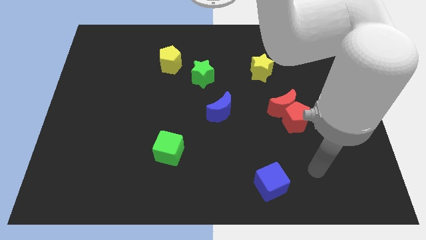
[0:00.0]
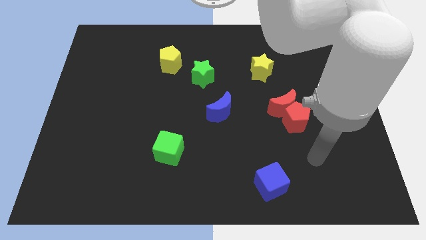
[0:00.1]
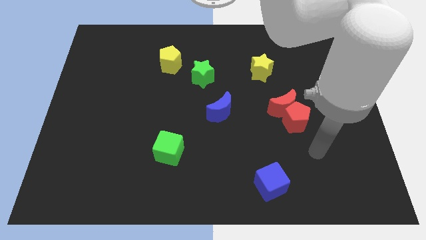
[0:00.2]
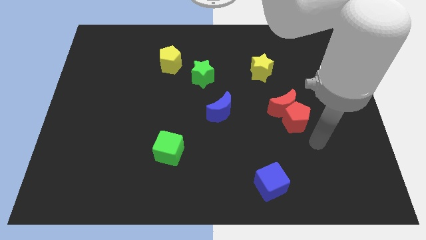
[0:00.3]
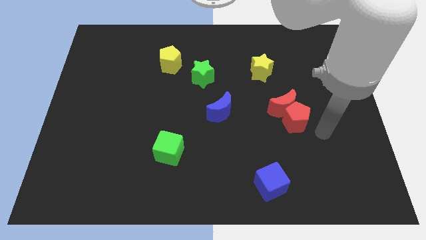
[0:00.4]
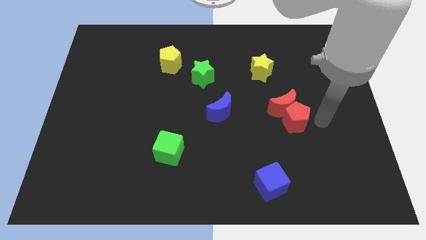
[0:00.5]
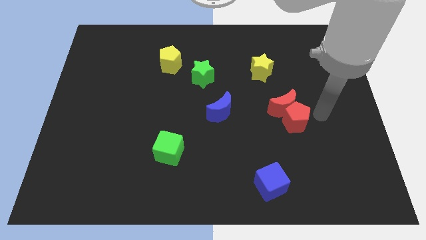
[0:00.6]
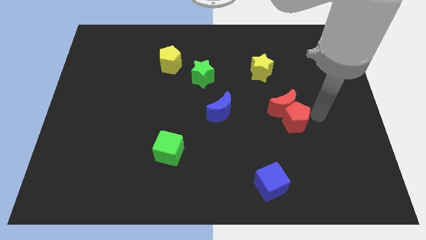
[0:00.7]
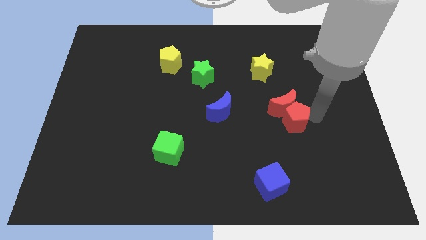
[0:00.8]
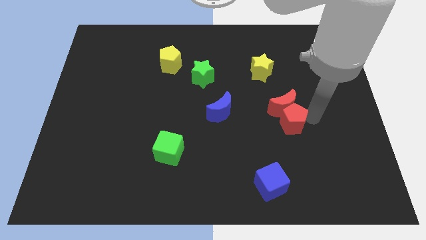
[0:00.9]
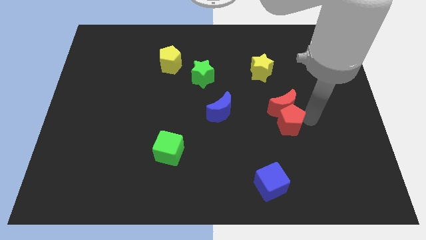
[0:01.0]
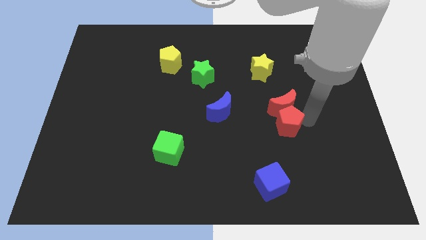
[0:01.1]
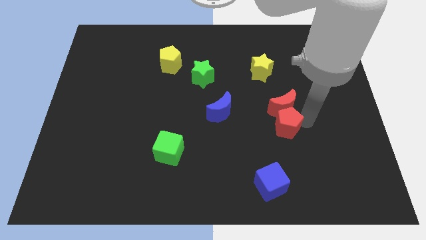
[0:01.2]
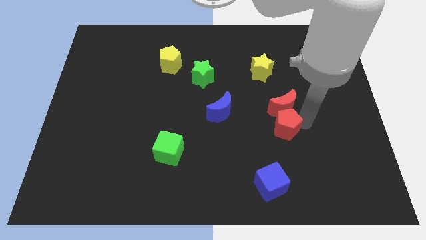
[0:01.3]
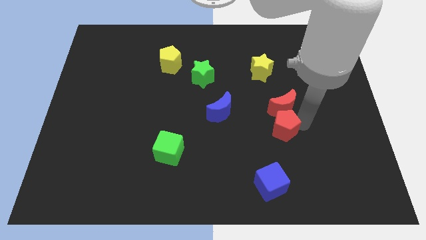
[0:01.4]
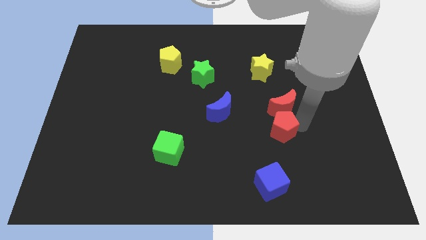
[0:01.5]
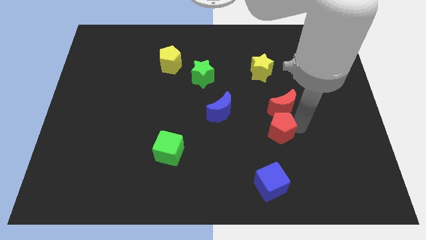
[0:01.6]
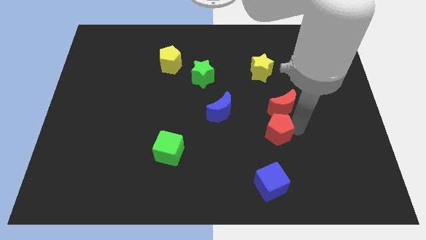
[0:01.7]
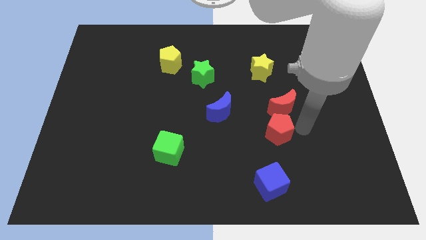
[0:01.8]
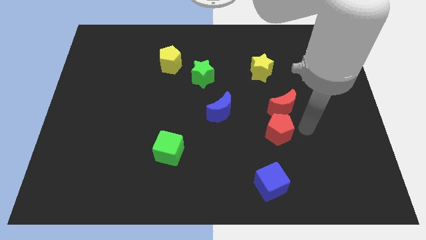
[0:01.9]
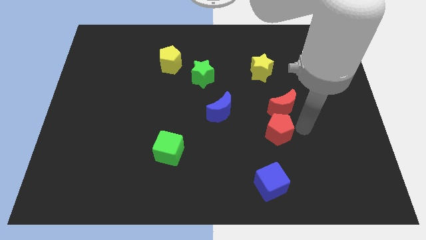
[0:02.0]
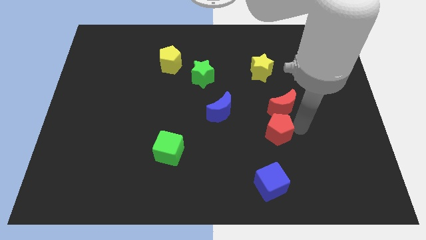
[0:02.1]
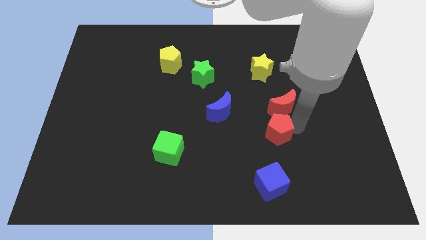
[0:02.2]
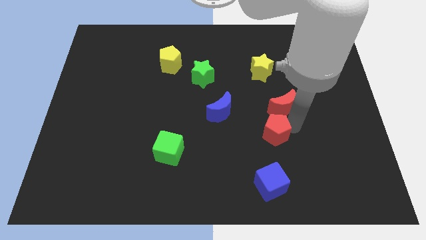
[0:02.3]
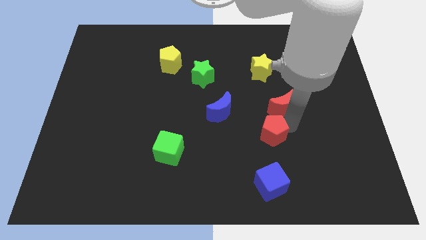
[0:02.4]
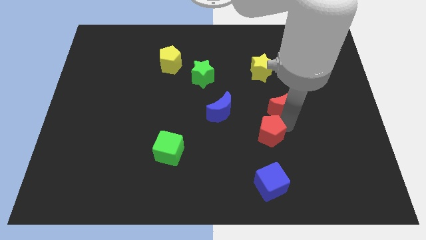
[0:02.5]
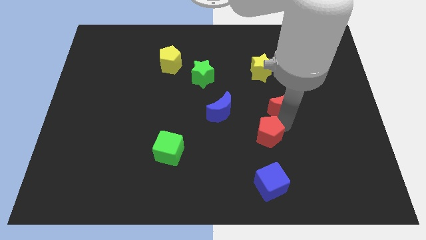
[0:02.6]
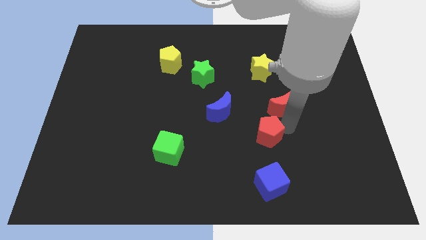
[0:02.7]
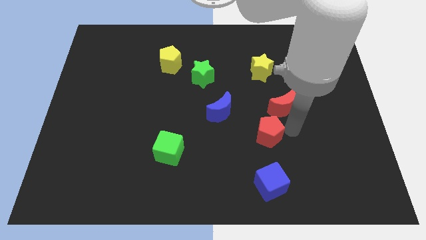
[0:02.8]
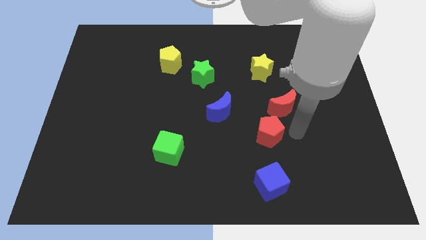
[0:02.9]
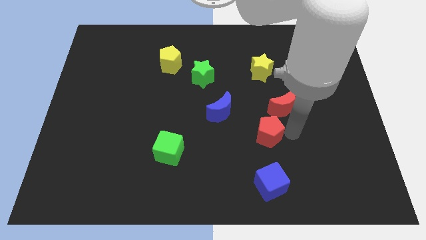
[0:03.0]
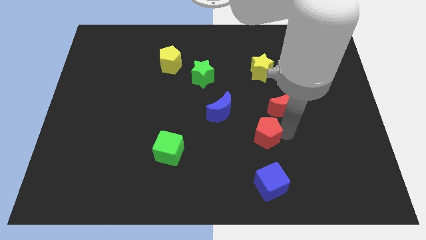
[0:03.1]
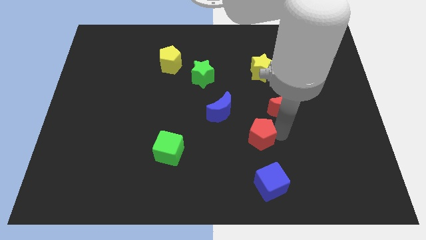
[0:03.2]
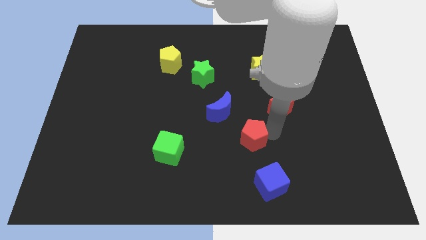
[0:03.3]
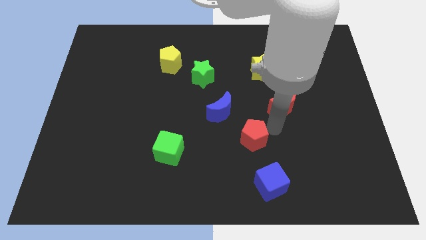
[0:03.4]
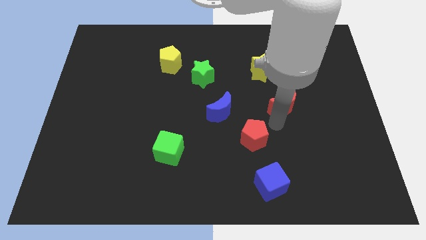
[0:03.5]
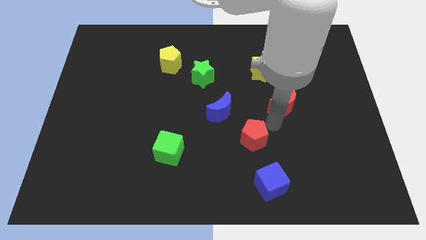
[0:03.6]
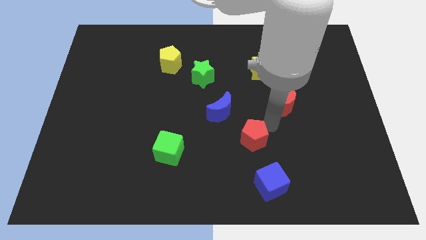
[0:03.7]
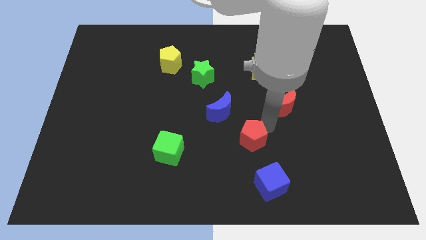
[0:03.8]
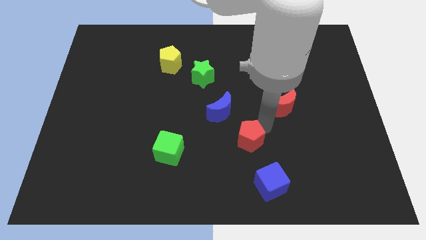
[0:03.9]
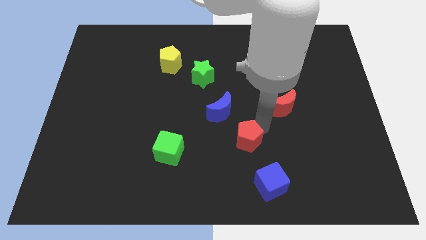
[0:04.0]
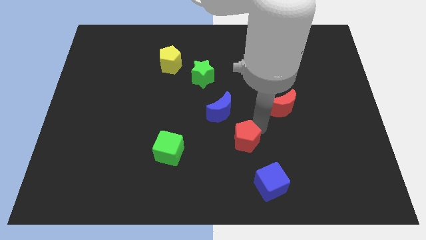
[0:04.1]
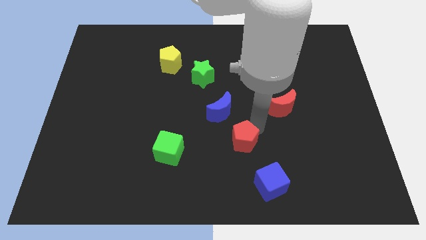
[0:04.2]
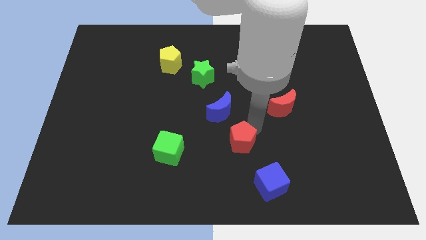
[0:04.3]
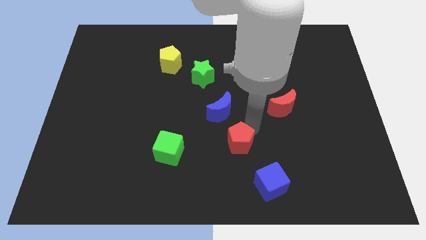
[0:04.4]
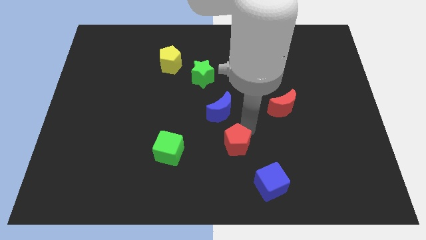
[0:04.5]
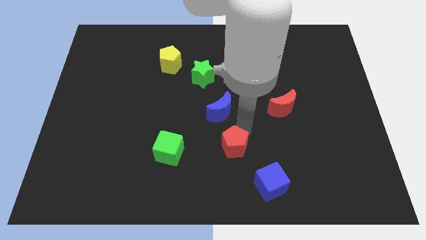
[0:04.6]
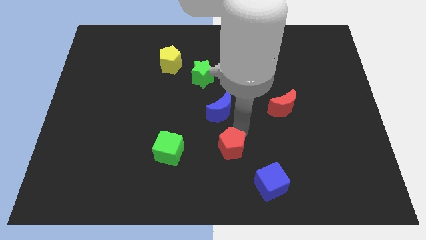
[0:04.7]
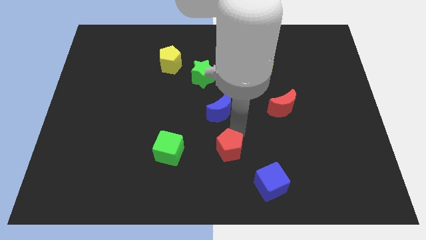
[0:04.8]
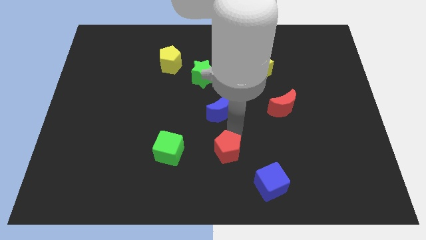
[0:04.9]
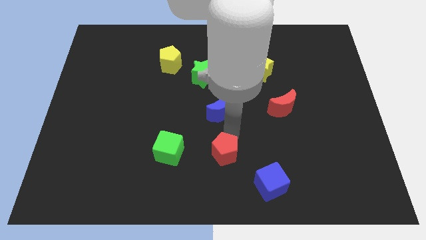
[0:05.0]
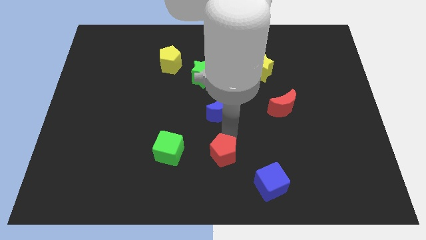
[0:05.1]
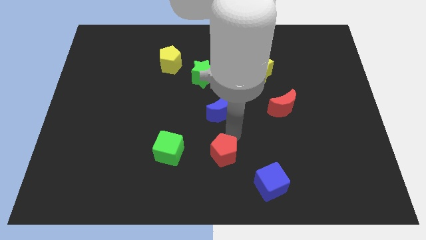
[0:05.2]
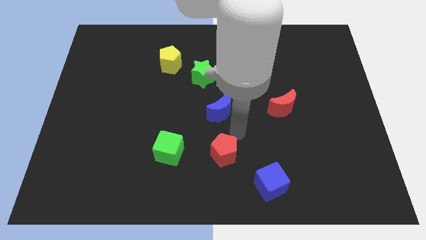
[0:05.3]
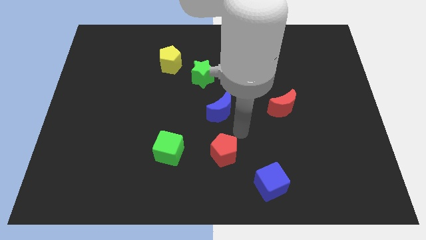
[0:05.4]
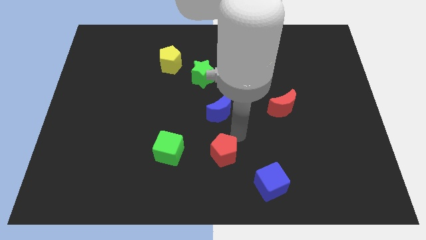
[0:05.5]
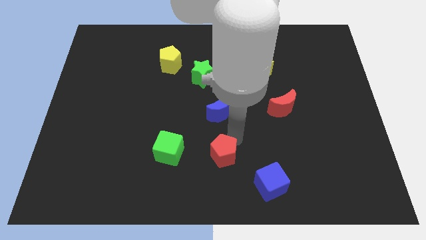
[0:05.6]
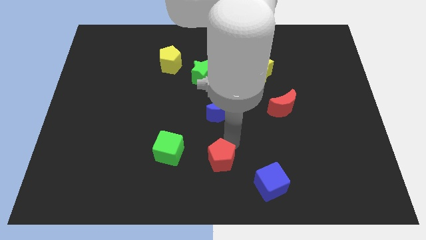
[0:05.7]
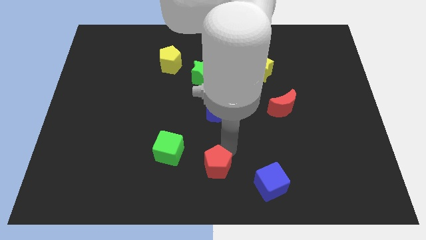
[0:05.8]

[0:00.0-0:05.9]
slide the red pentagon to the bottom right of the green cube

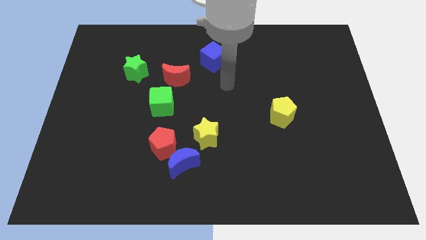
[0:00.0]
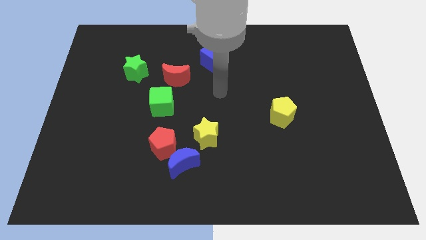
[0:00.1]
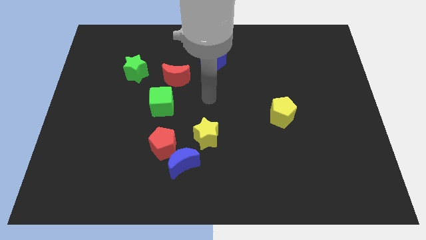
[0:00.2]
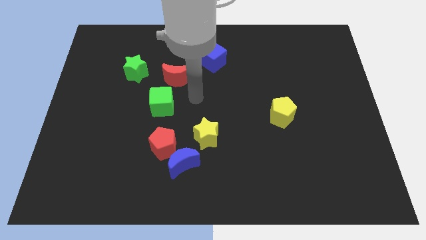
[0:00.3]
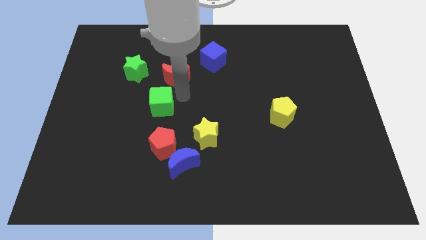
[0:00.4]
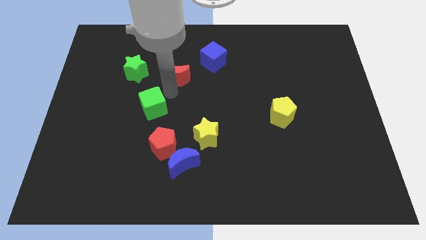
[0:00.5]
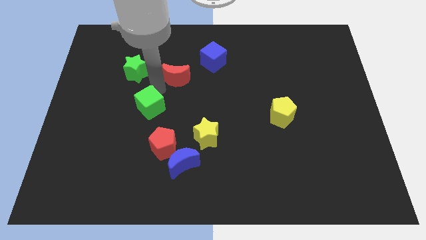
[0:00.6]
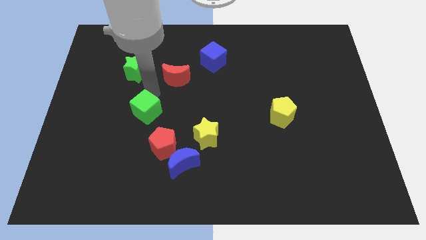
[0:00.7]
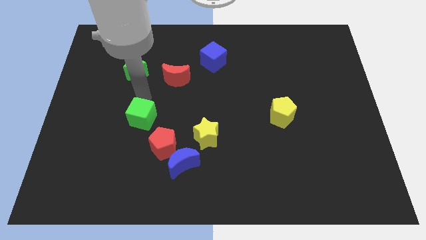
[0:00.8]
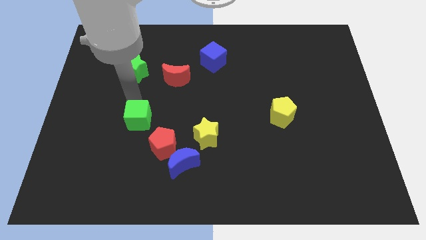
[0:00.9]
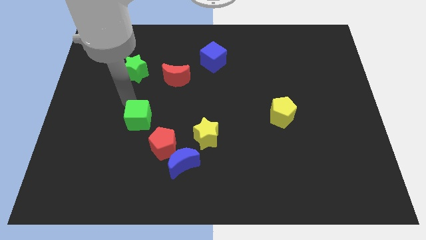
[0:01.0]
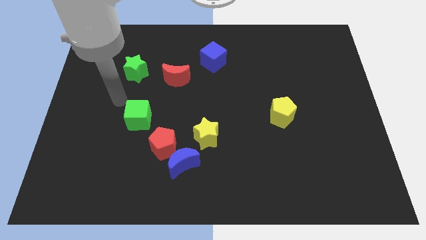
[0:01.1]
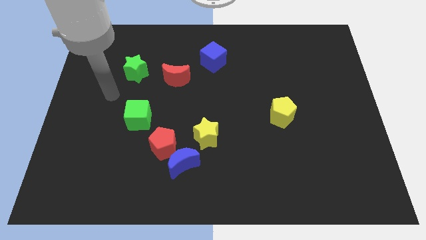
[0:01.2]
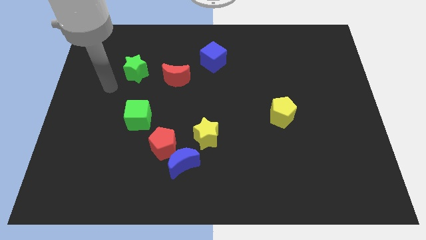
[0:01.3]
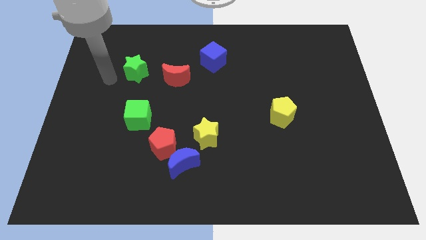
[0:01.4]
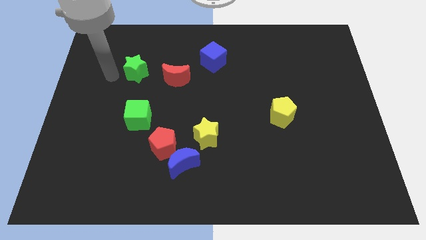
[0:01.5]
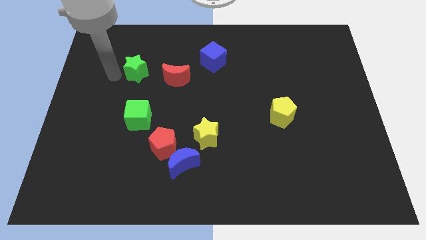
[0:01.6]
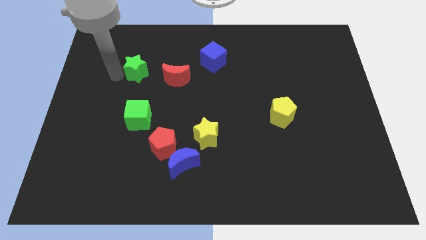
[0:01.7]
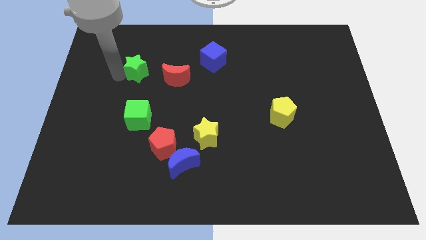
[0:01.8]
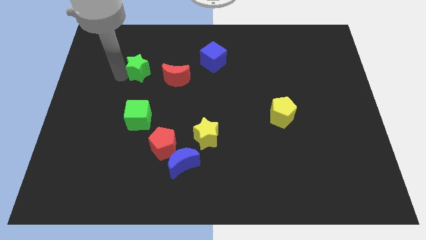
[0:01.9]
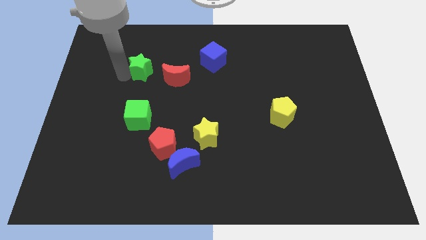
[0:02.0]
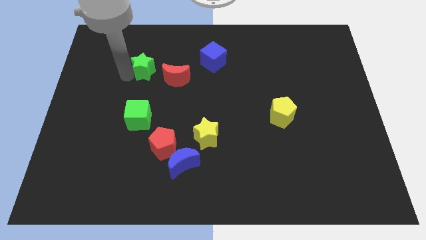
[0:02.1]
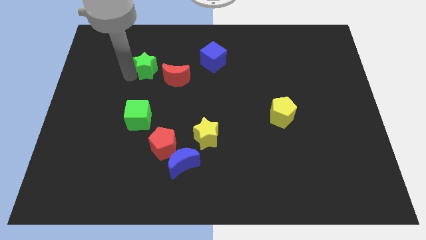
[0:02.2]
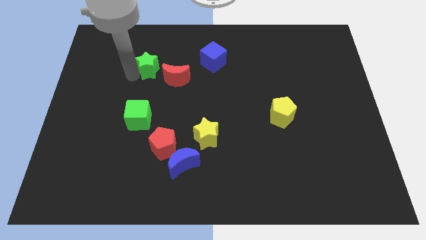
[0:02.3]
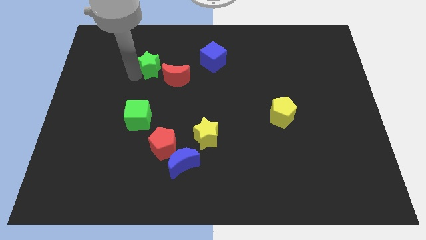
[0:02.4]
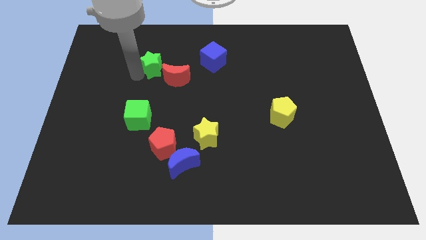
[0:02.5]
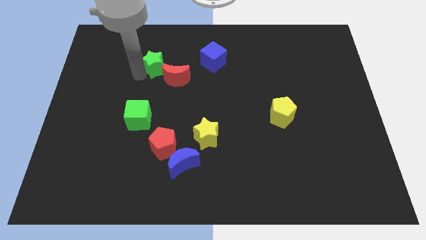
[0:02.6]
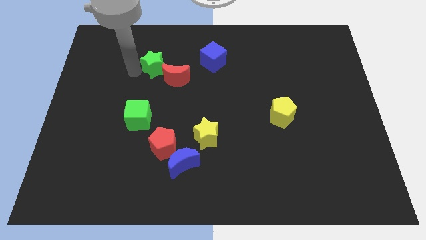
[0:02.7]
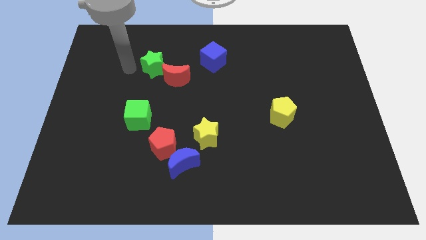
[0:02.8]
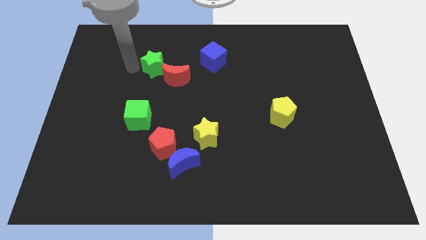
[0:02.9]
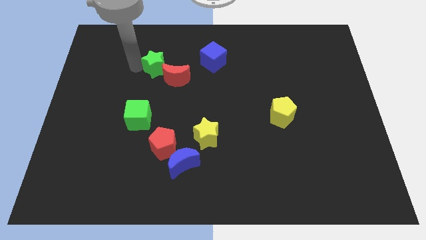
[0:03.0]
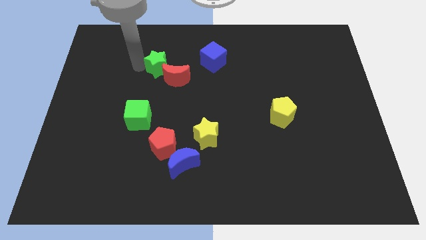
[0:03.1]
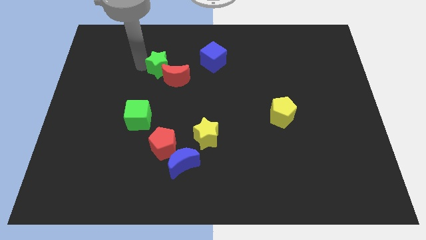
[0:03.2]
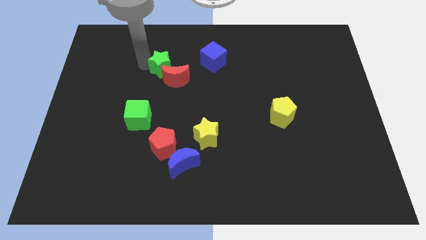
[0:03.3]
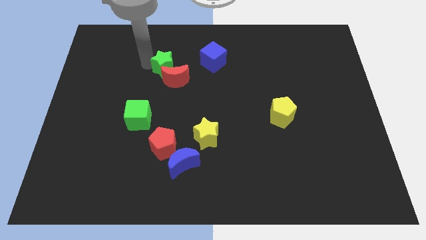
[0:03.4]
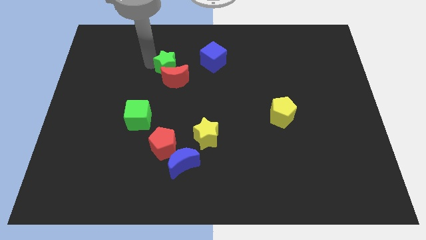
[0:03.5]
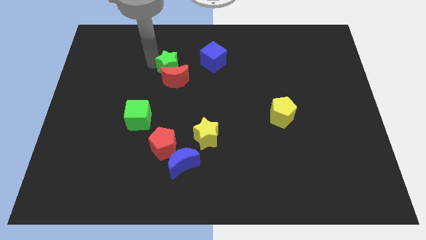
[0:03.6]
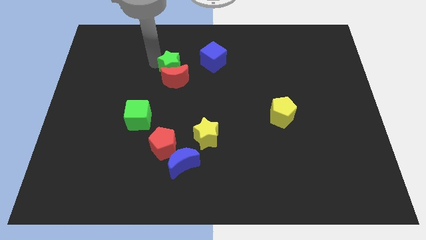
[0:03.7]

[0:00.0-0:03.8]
push the green star to the top right side of the red moon
